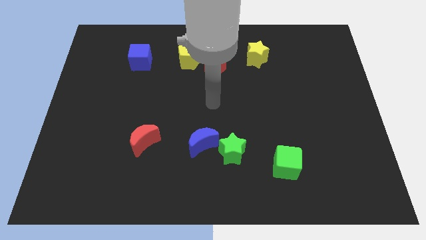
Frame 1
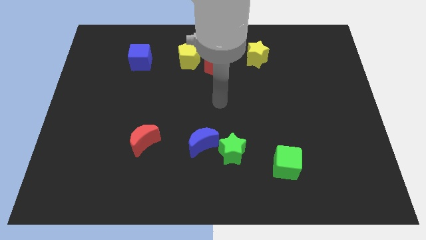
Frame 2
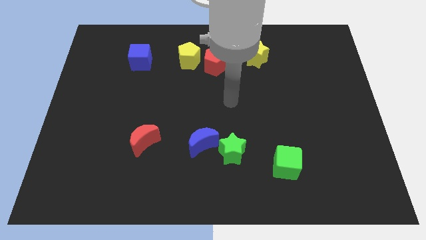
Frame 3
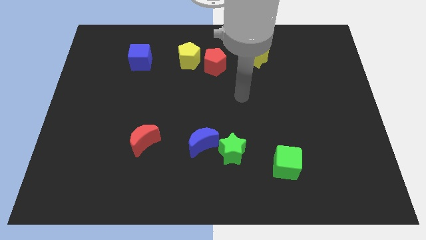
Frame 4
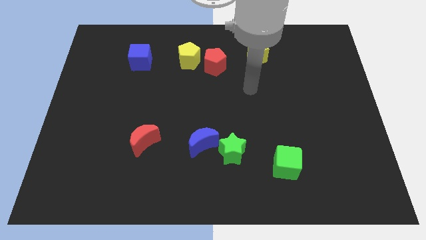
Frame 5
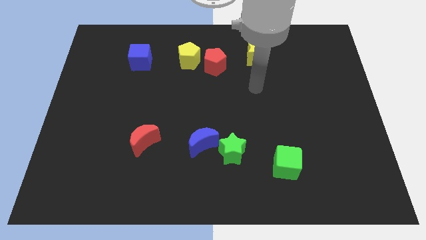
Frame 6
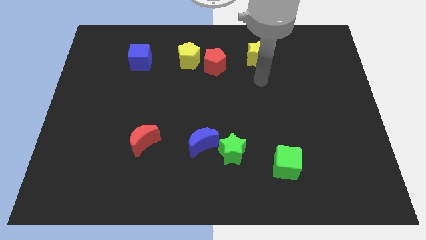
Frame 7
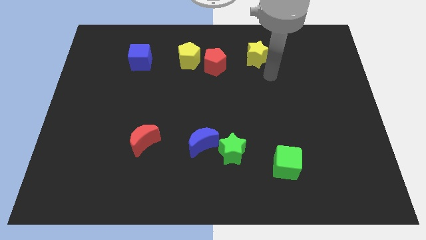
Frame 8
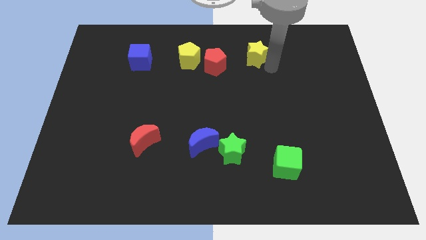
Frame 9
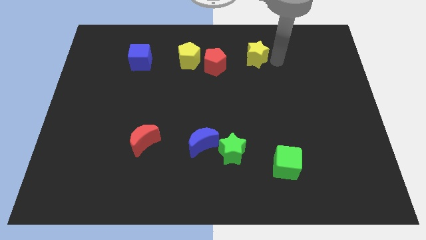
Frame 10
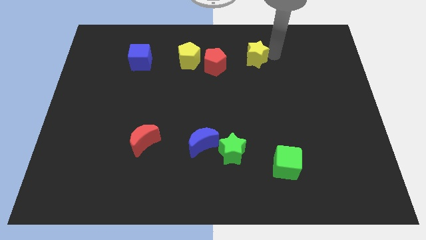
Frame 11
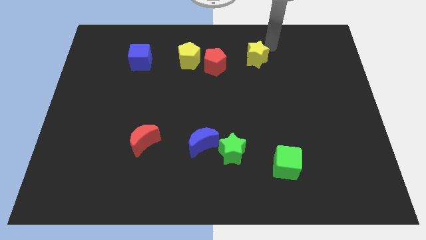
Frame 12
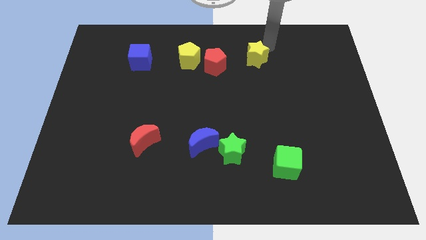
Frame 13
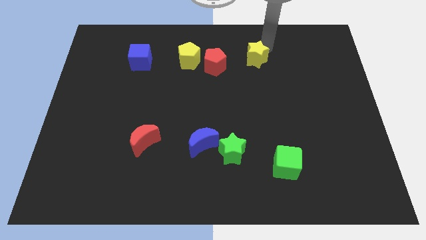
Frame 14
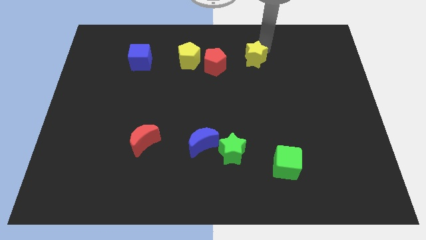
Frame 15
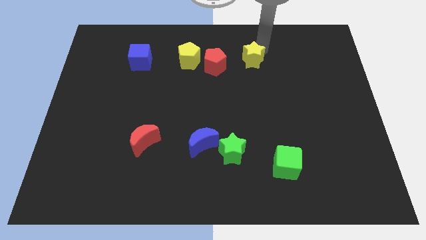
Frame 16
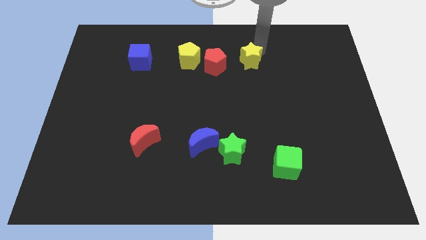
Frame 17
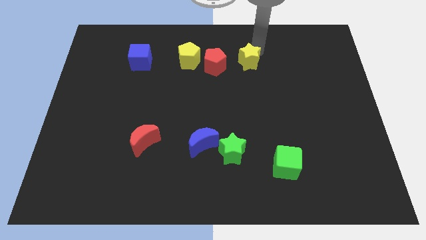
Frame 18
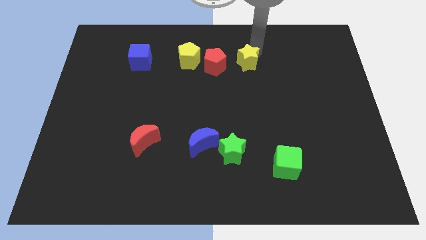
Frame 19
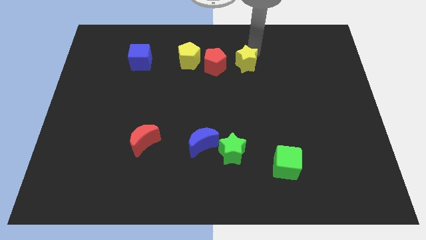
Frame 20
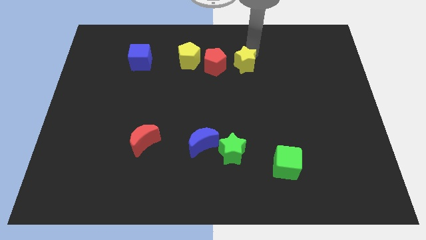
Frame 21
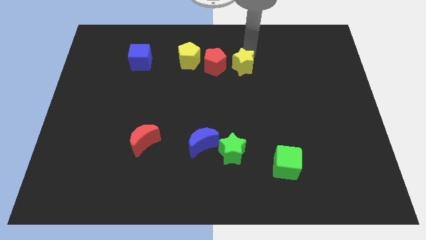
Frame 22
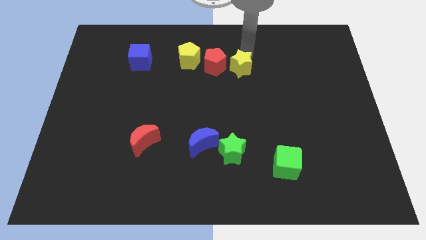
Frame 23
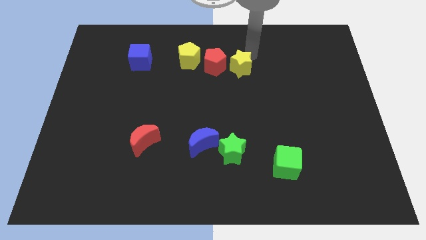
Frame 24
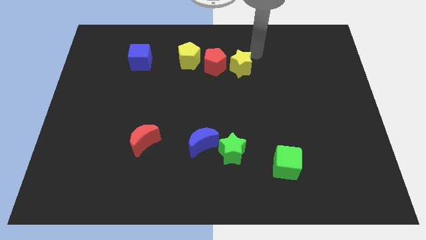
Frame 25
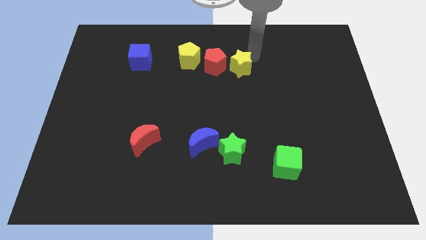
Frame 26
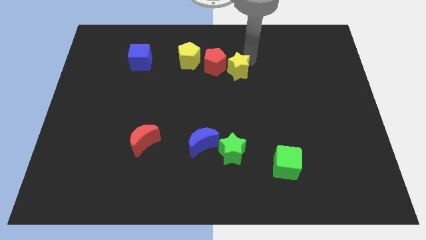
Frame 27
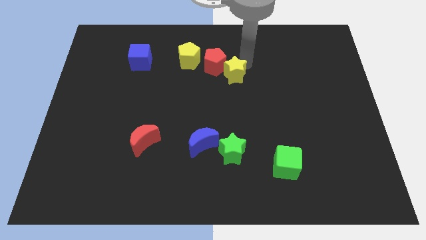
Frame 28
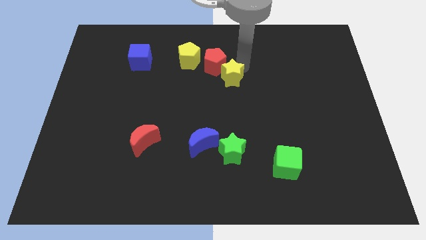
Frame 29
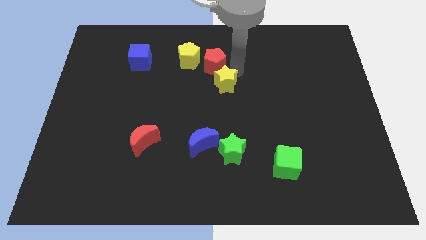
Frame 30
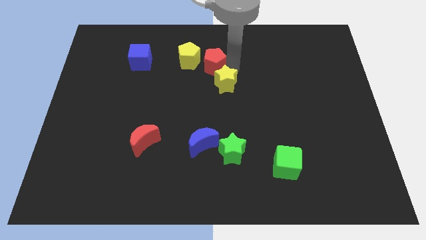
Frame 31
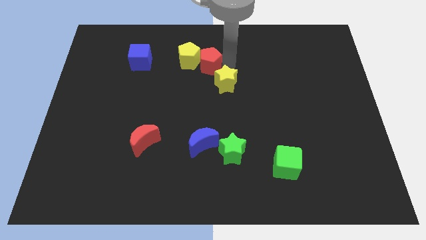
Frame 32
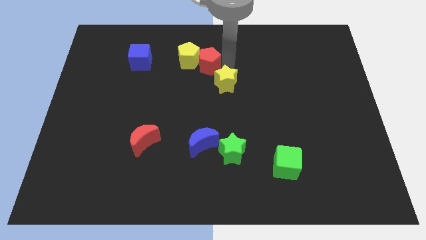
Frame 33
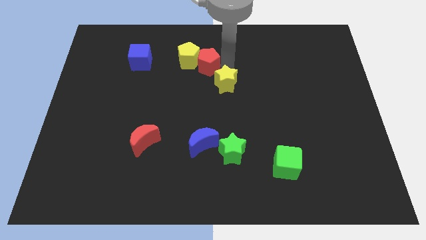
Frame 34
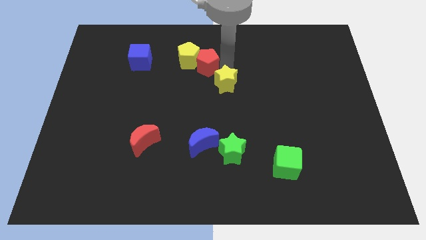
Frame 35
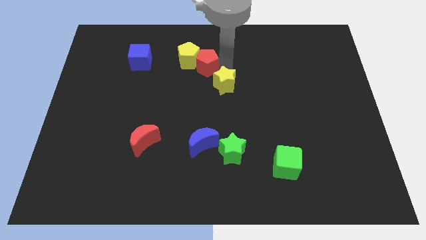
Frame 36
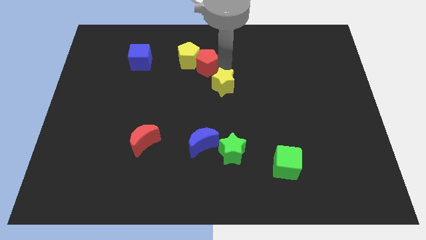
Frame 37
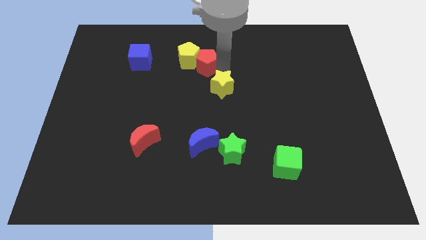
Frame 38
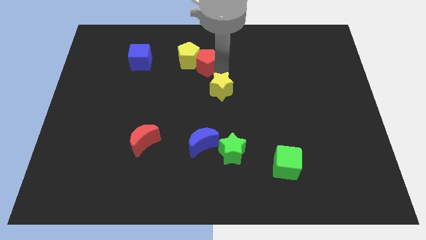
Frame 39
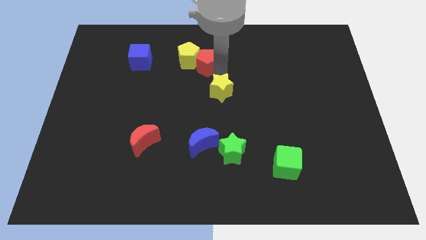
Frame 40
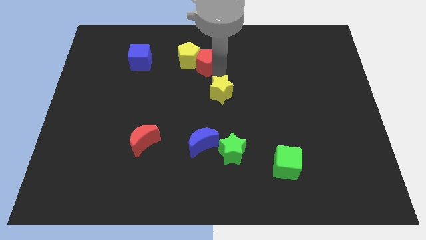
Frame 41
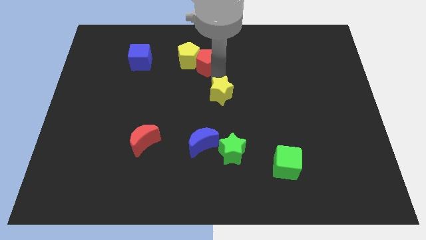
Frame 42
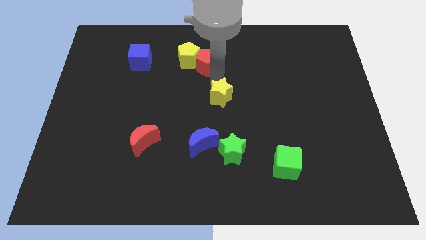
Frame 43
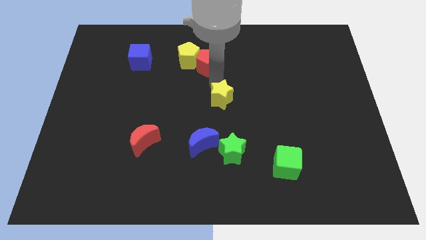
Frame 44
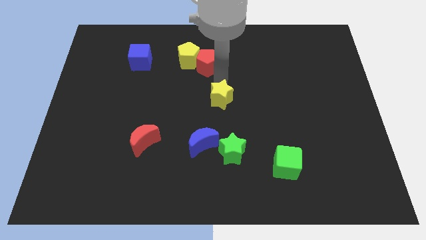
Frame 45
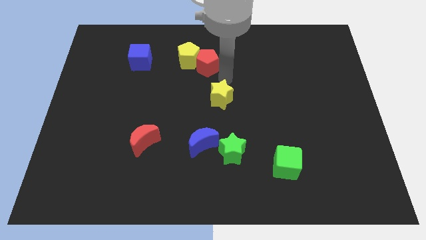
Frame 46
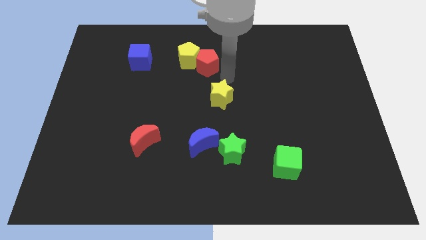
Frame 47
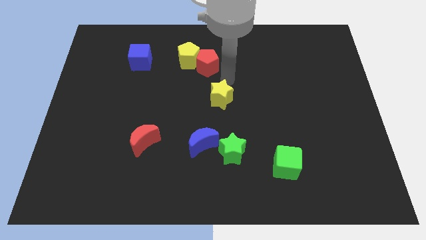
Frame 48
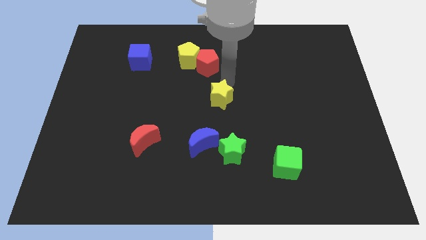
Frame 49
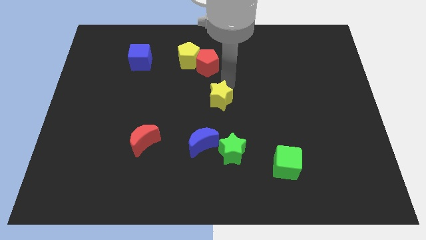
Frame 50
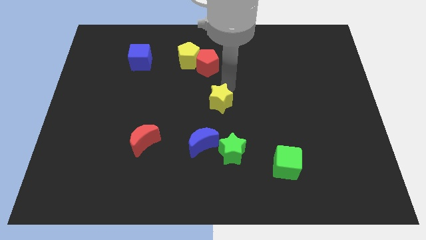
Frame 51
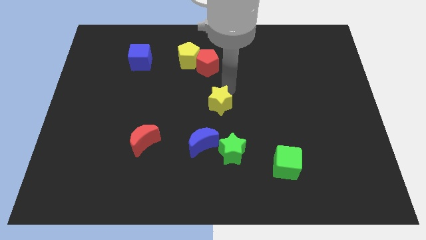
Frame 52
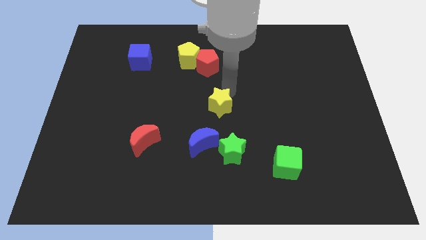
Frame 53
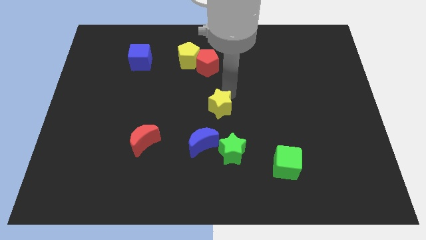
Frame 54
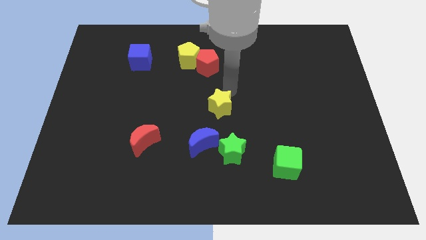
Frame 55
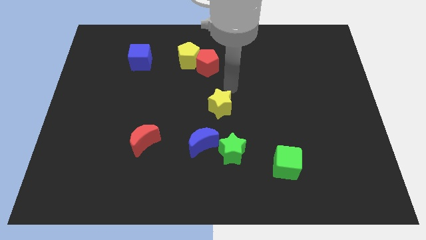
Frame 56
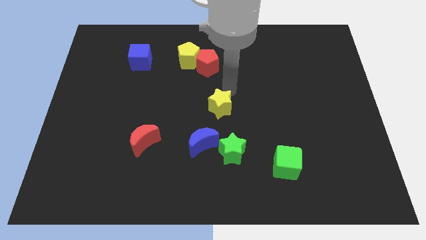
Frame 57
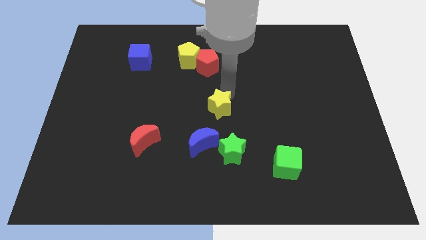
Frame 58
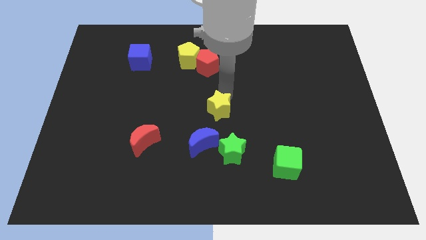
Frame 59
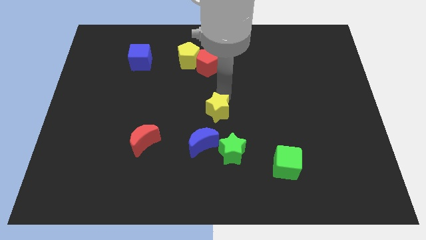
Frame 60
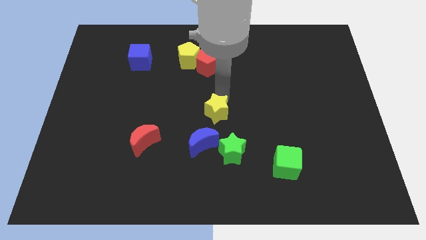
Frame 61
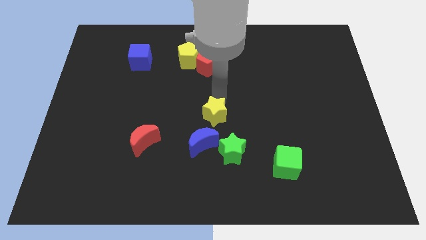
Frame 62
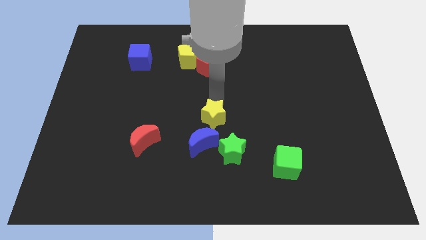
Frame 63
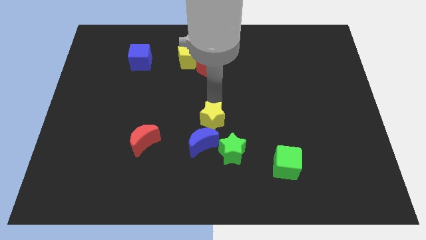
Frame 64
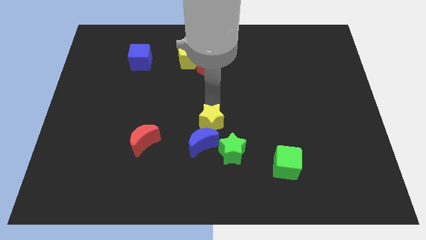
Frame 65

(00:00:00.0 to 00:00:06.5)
put the yellow star to the blue moon

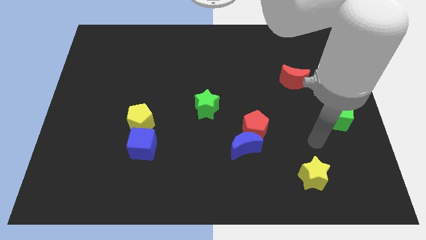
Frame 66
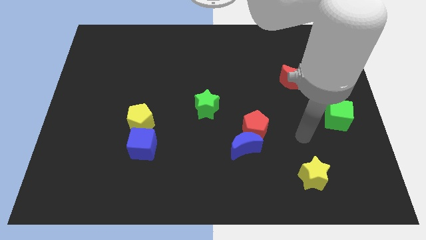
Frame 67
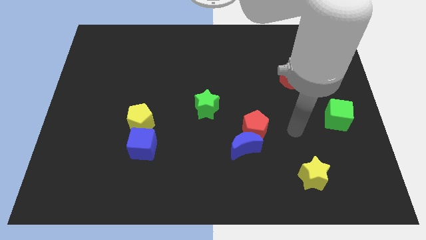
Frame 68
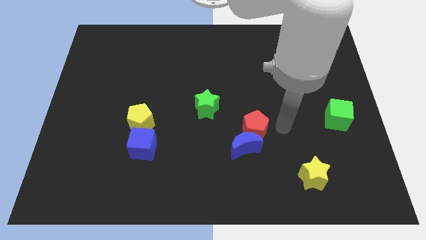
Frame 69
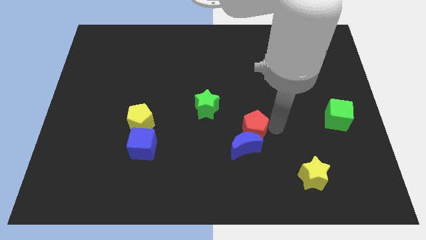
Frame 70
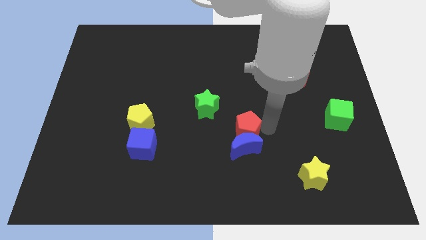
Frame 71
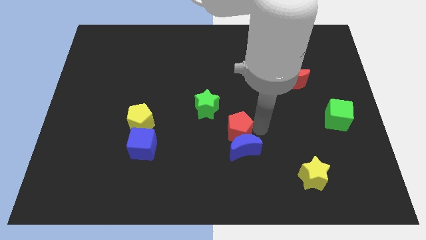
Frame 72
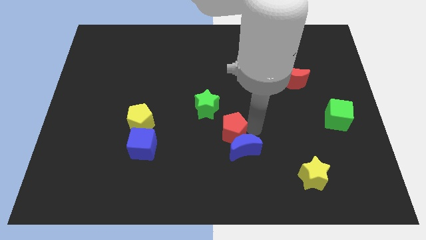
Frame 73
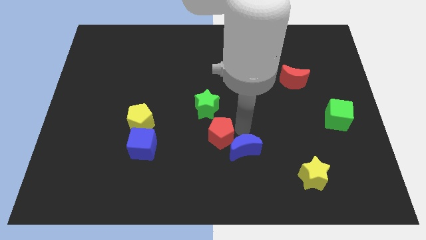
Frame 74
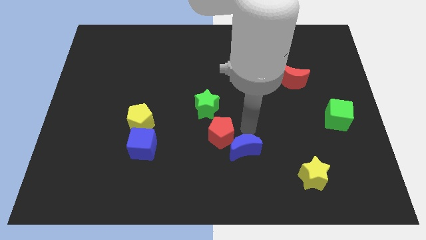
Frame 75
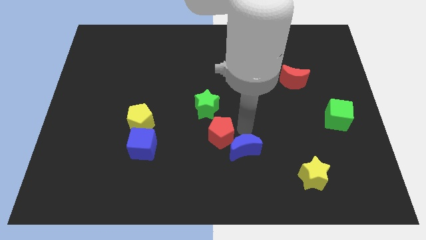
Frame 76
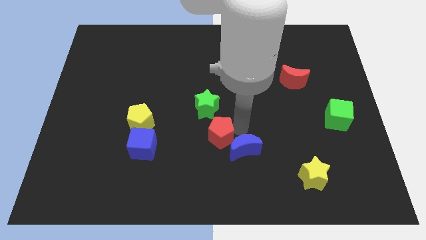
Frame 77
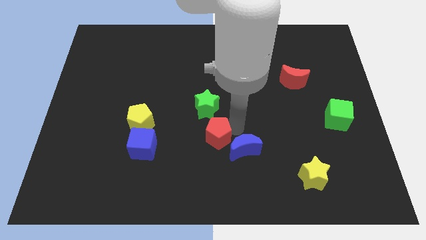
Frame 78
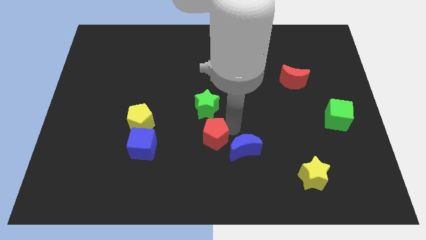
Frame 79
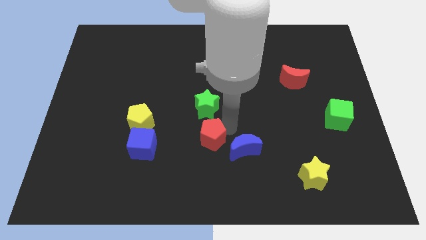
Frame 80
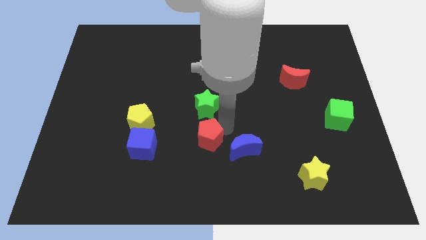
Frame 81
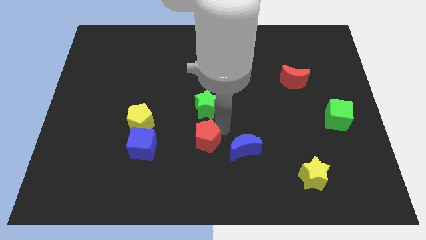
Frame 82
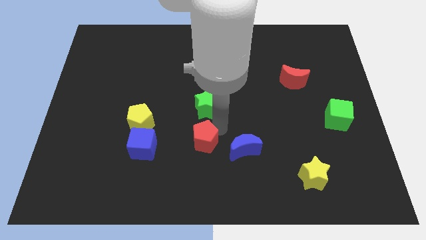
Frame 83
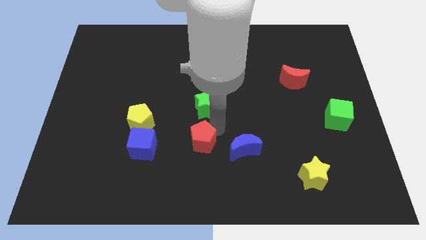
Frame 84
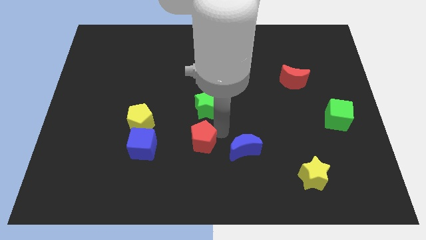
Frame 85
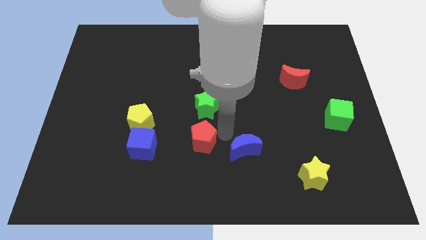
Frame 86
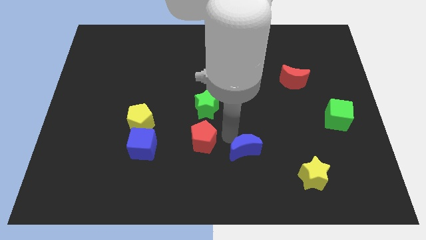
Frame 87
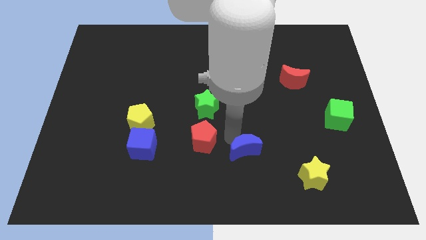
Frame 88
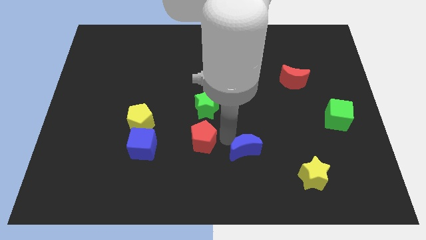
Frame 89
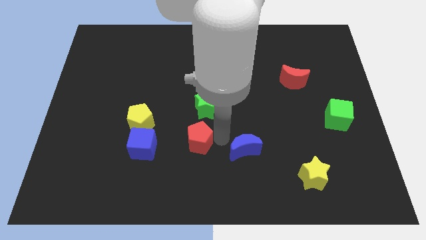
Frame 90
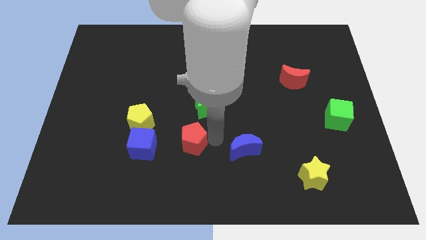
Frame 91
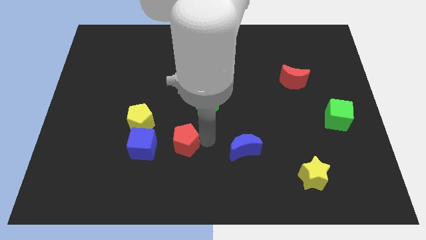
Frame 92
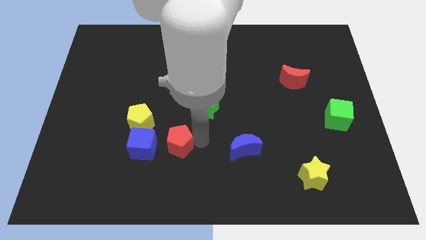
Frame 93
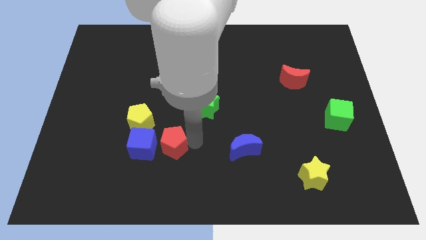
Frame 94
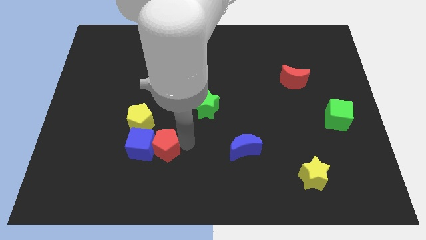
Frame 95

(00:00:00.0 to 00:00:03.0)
push the red pentagon to the blue cube
